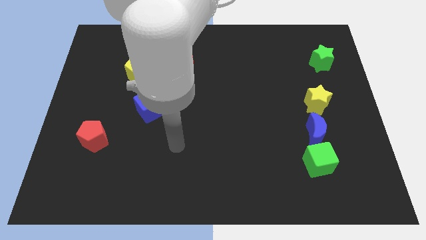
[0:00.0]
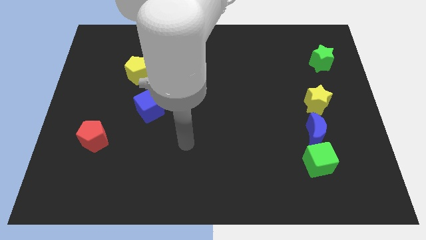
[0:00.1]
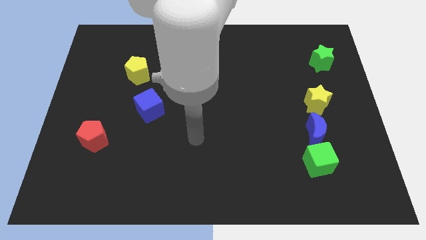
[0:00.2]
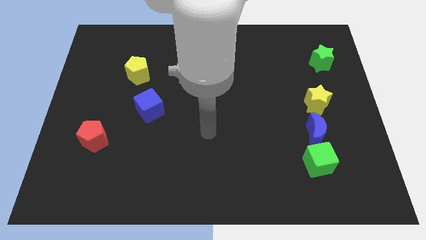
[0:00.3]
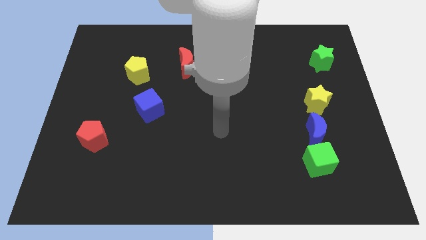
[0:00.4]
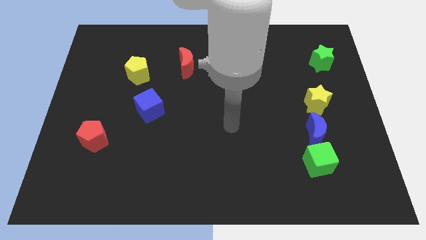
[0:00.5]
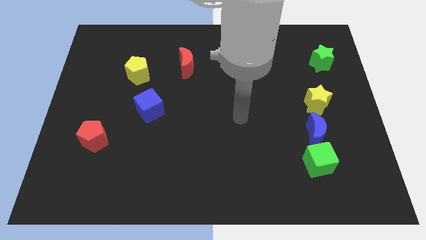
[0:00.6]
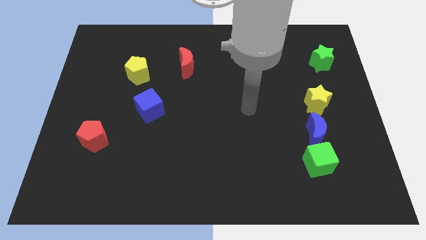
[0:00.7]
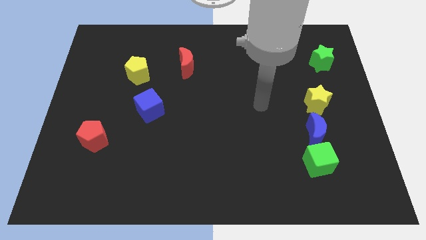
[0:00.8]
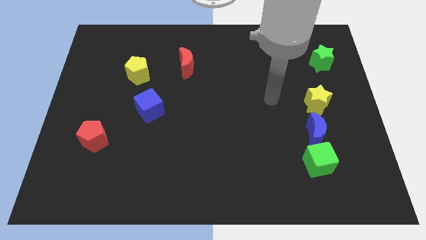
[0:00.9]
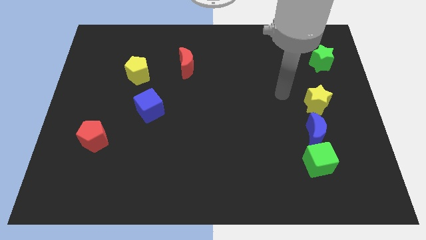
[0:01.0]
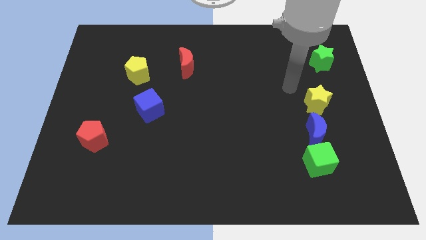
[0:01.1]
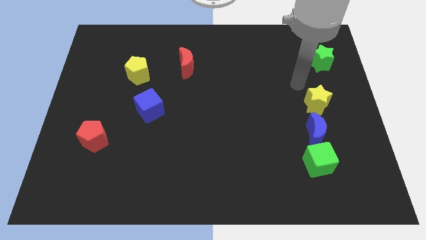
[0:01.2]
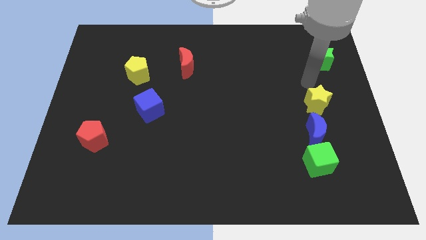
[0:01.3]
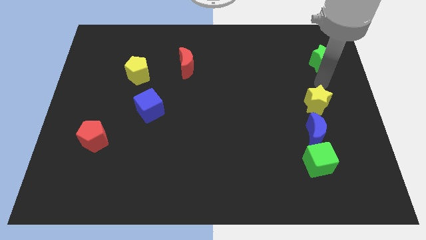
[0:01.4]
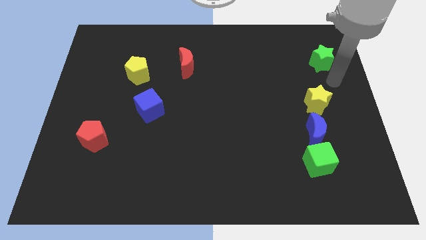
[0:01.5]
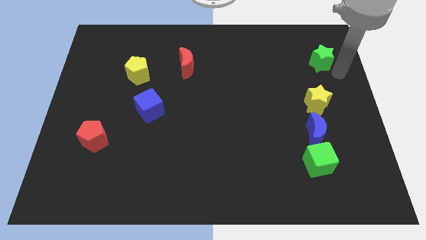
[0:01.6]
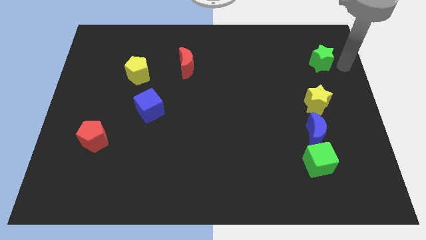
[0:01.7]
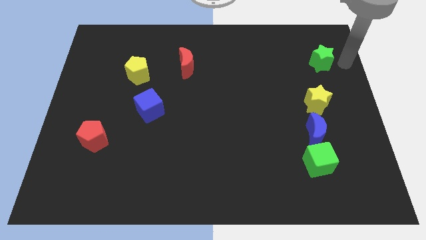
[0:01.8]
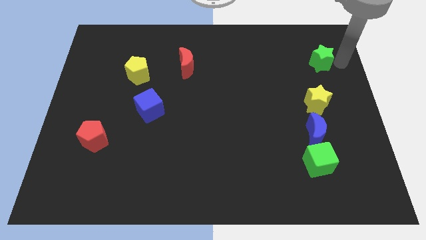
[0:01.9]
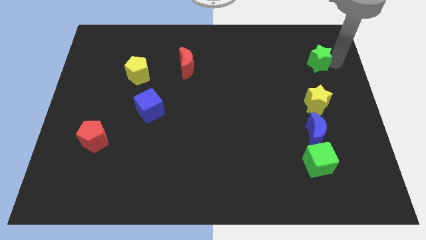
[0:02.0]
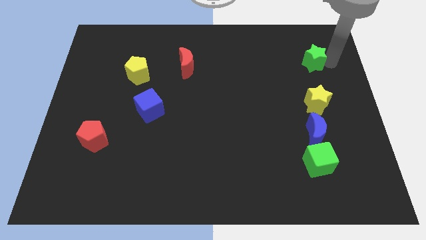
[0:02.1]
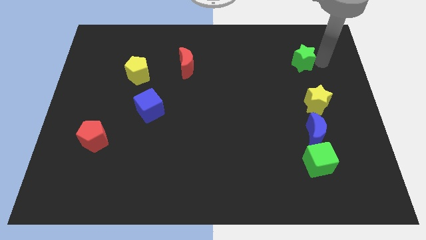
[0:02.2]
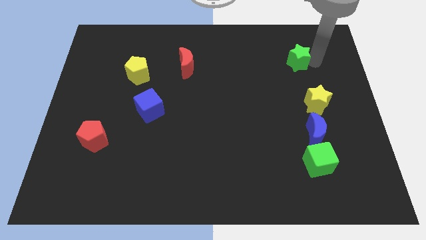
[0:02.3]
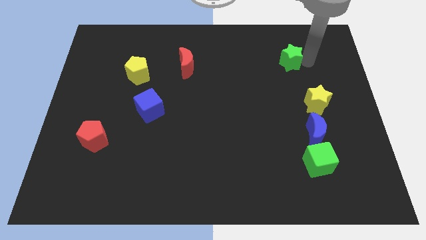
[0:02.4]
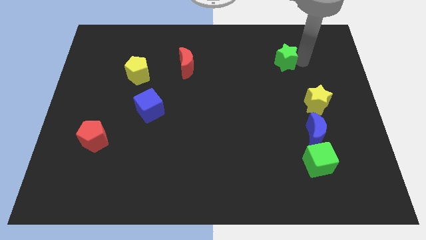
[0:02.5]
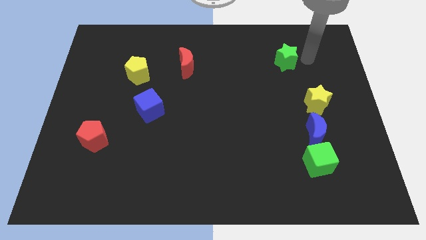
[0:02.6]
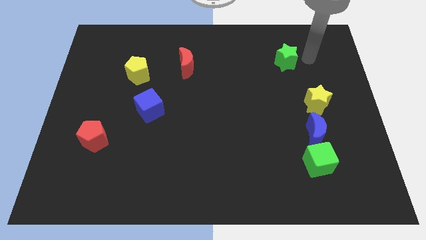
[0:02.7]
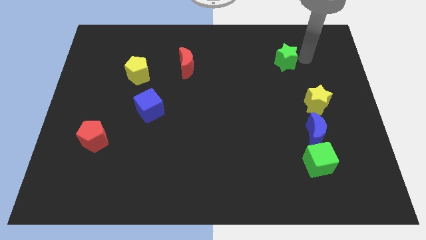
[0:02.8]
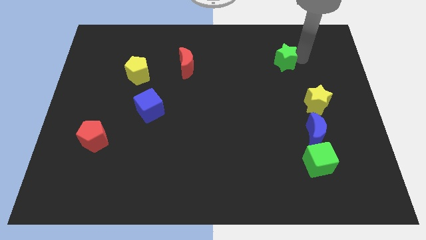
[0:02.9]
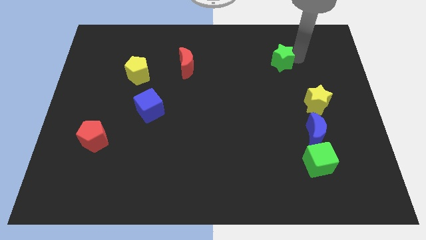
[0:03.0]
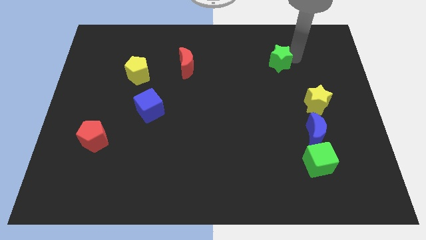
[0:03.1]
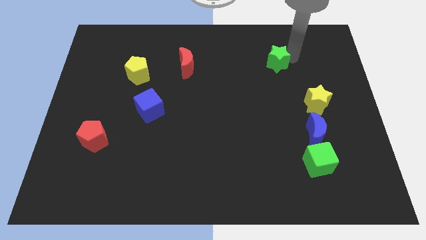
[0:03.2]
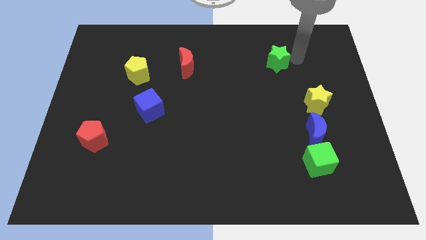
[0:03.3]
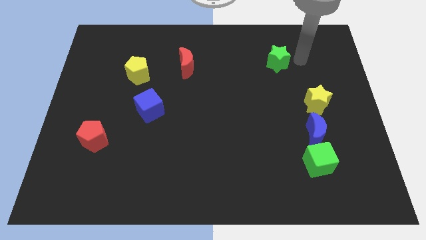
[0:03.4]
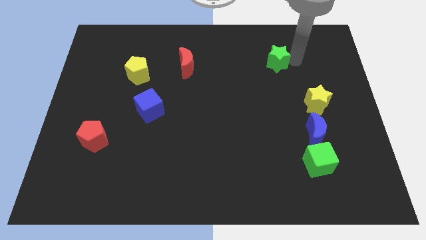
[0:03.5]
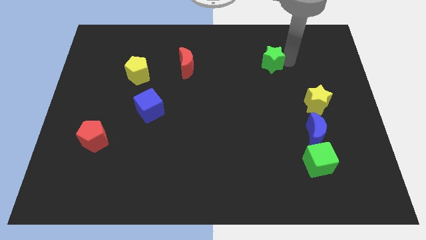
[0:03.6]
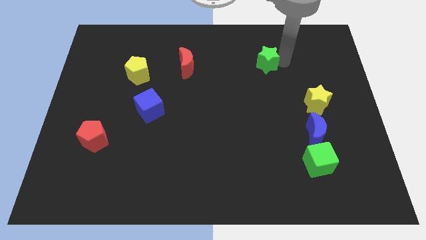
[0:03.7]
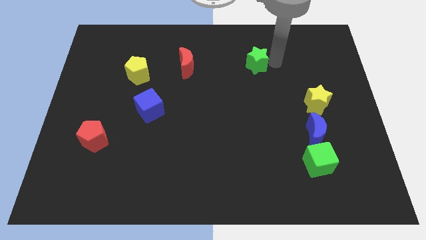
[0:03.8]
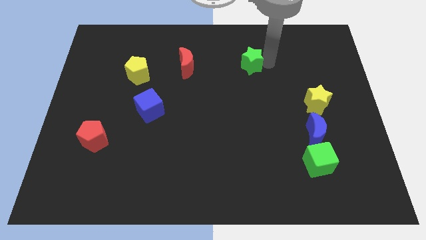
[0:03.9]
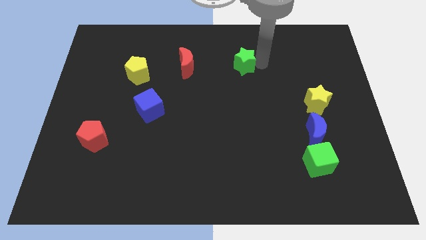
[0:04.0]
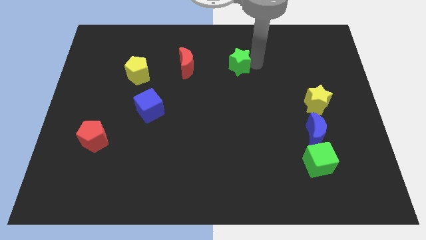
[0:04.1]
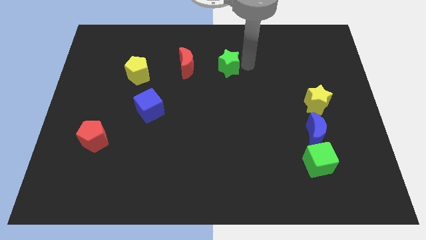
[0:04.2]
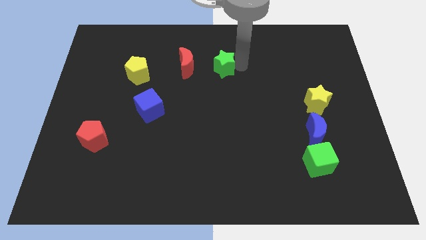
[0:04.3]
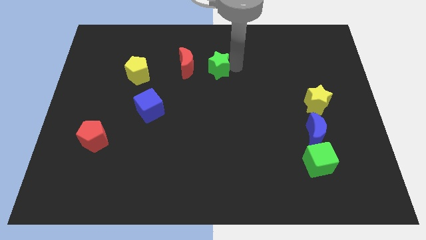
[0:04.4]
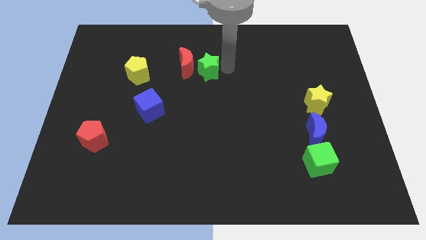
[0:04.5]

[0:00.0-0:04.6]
slide the green star to the red moon

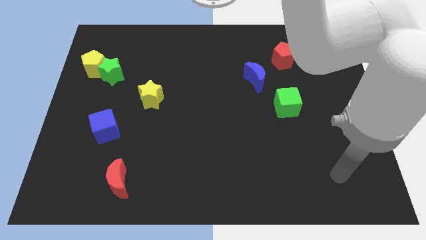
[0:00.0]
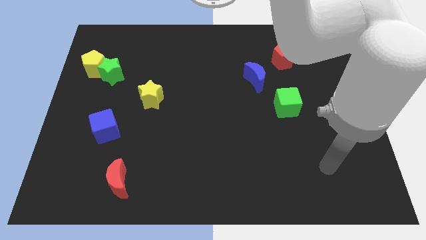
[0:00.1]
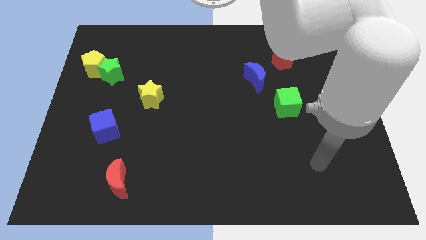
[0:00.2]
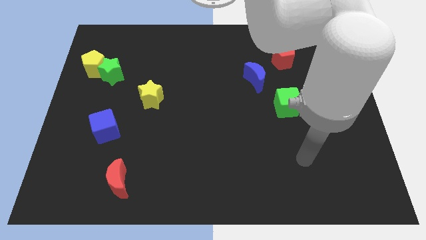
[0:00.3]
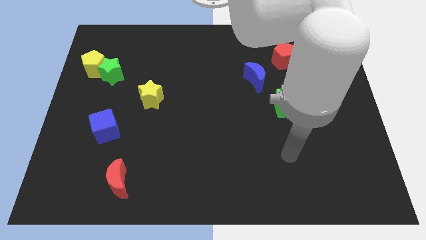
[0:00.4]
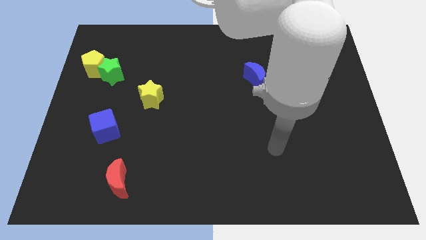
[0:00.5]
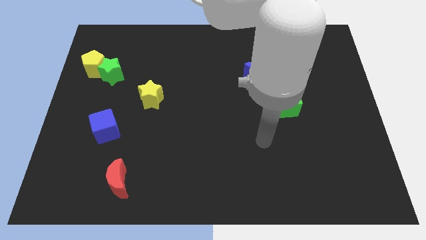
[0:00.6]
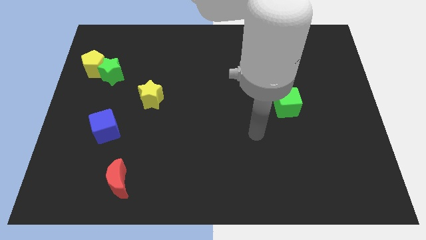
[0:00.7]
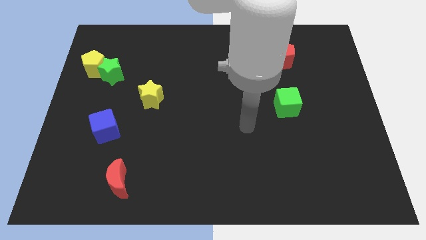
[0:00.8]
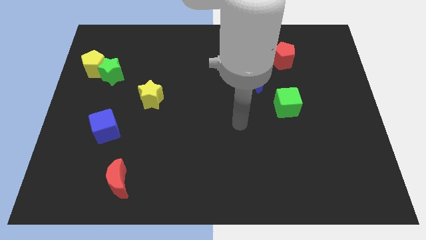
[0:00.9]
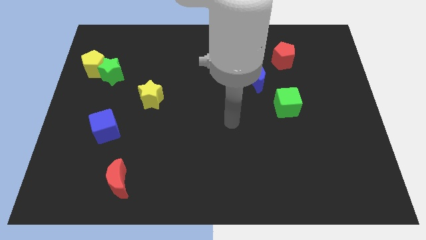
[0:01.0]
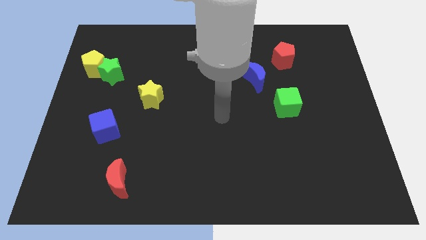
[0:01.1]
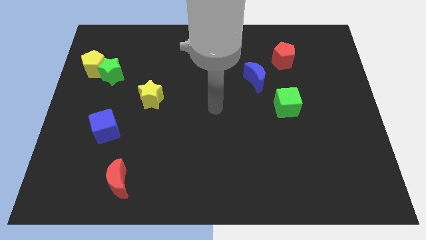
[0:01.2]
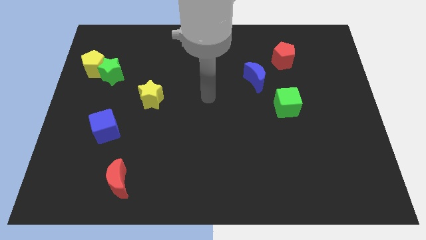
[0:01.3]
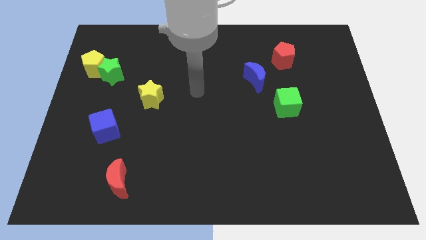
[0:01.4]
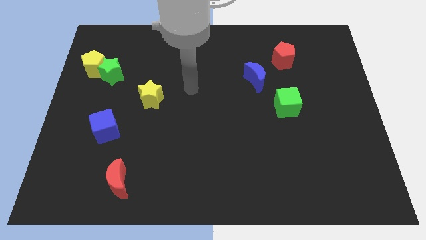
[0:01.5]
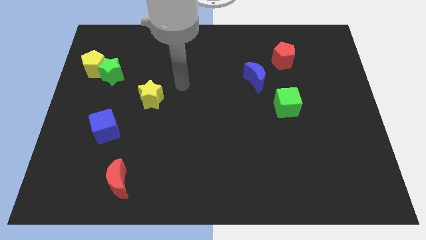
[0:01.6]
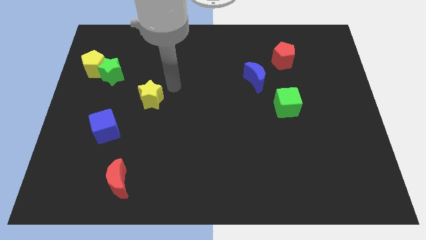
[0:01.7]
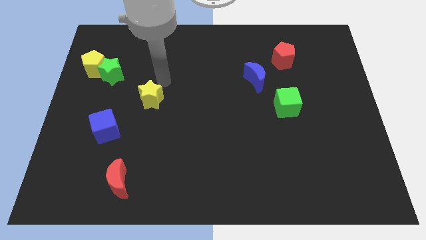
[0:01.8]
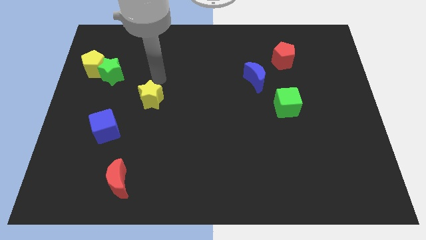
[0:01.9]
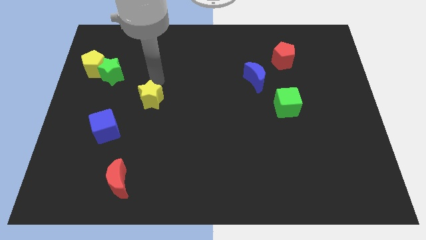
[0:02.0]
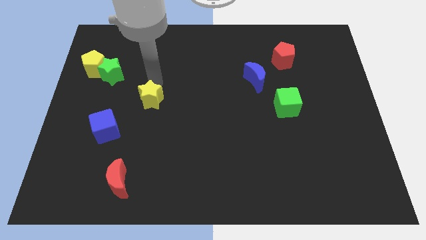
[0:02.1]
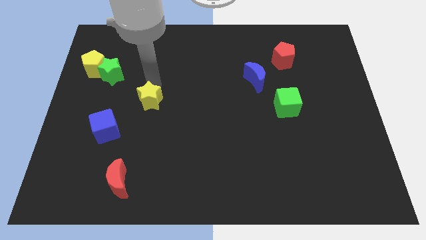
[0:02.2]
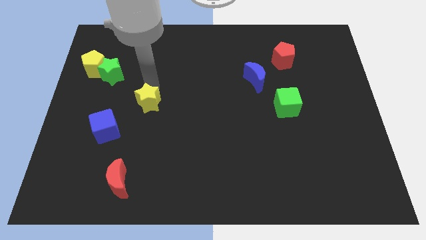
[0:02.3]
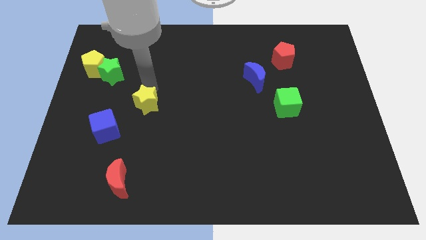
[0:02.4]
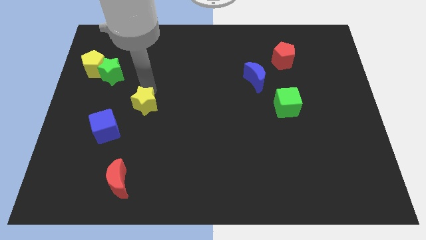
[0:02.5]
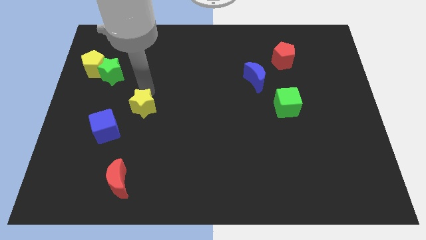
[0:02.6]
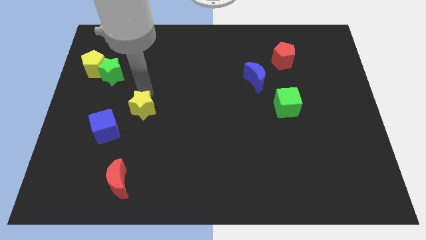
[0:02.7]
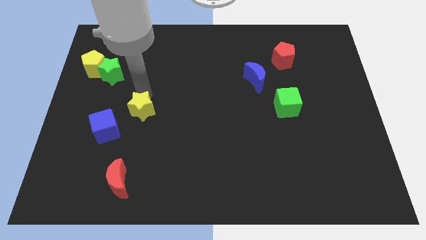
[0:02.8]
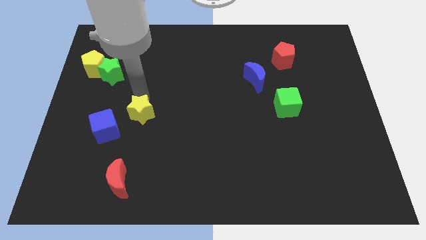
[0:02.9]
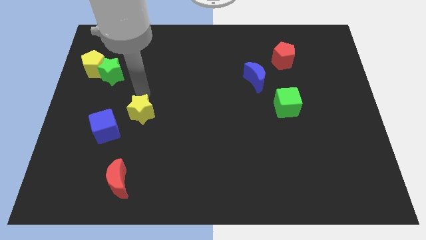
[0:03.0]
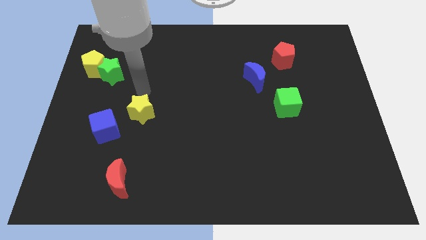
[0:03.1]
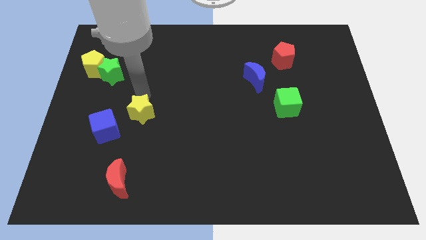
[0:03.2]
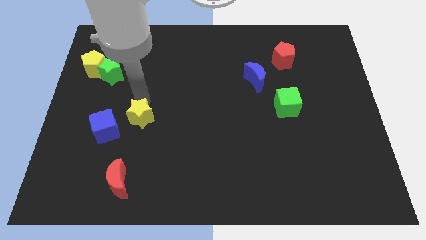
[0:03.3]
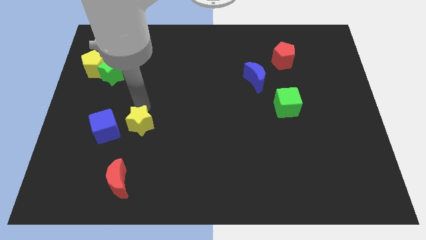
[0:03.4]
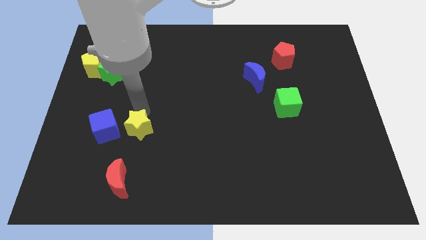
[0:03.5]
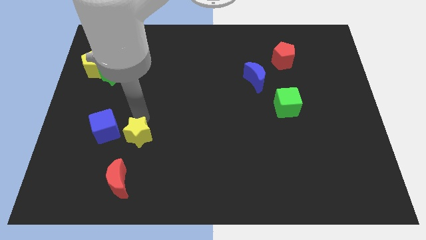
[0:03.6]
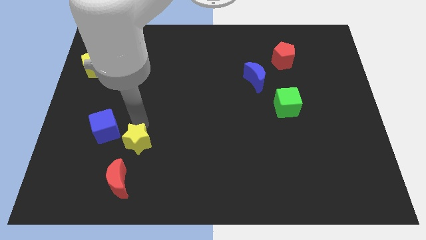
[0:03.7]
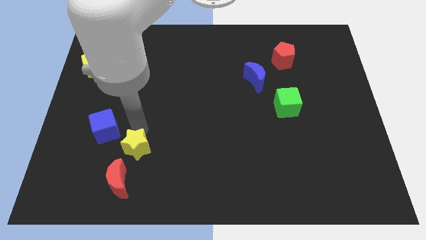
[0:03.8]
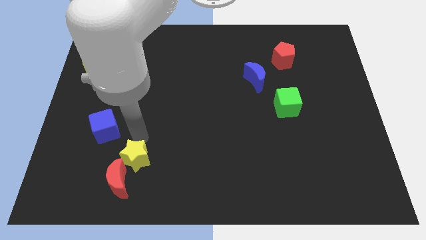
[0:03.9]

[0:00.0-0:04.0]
move the yellow star towards the red moon
